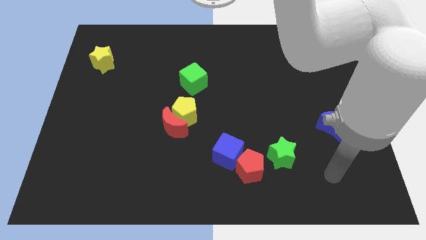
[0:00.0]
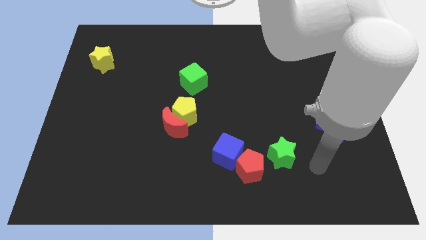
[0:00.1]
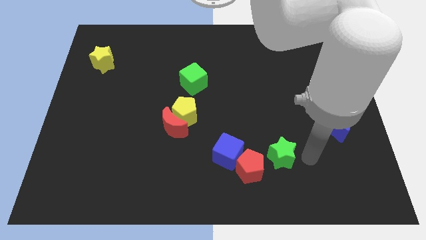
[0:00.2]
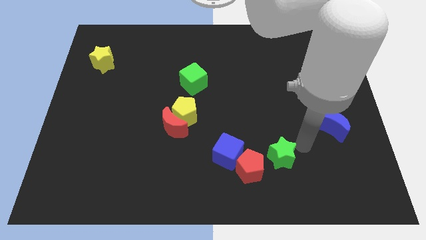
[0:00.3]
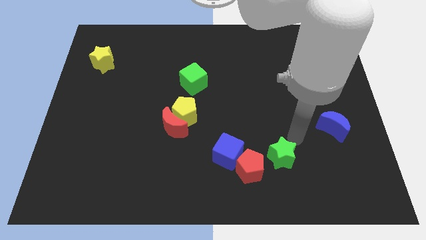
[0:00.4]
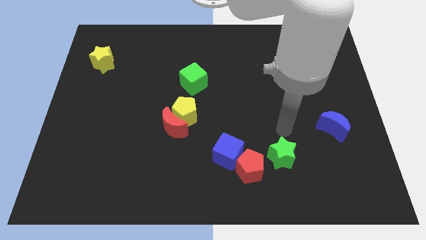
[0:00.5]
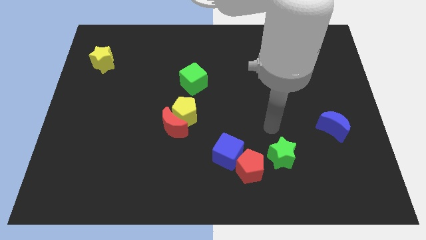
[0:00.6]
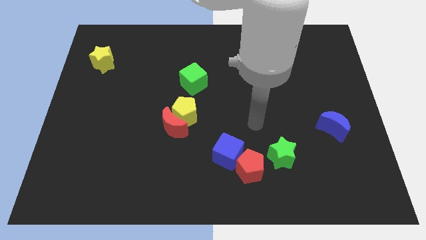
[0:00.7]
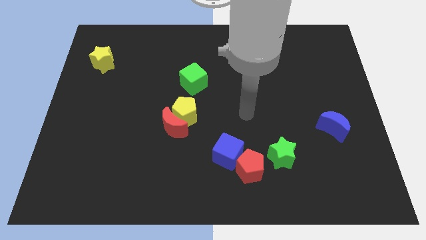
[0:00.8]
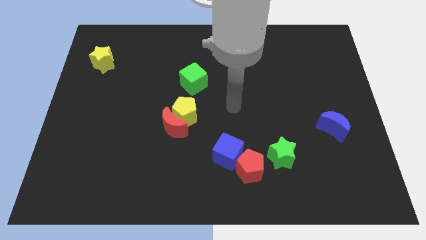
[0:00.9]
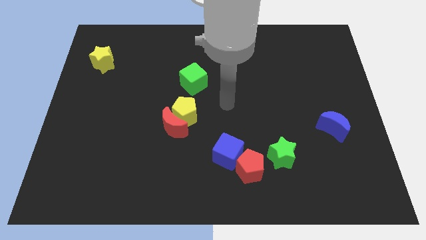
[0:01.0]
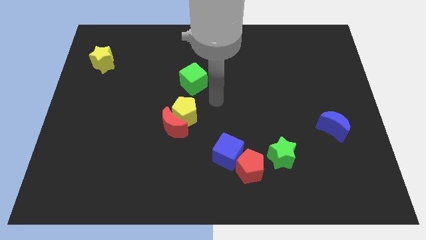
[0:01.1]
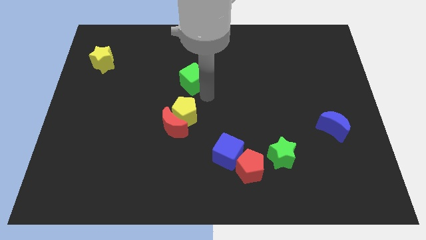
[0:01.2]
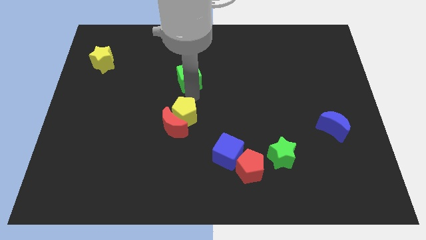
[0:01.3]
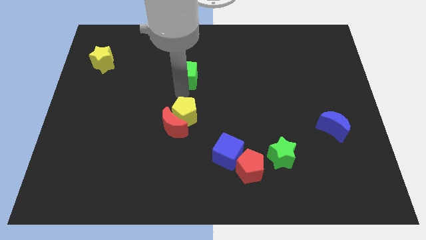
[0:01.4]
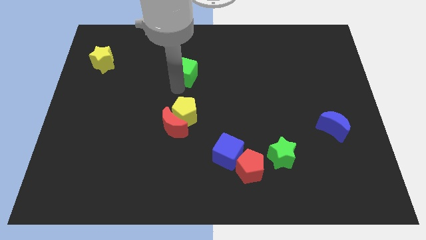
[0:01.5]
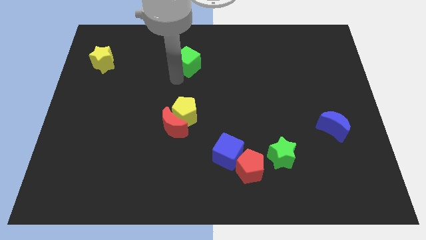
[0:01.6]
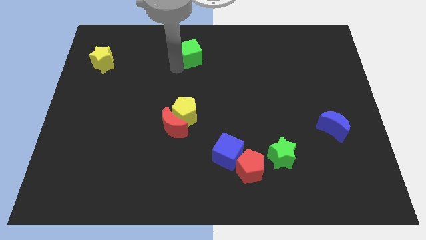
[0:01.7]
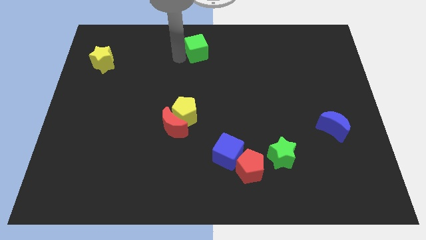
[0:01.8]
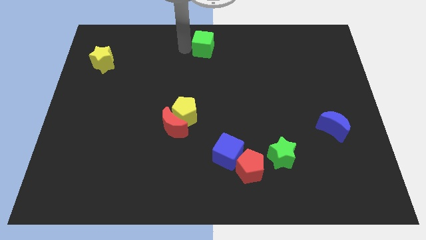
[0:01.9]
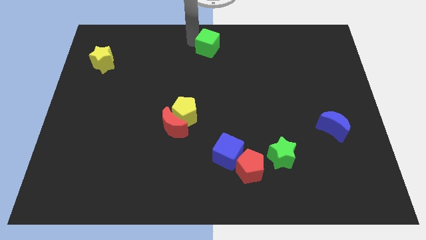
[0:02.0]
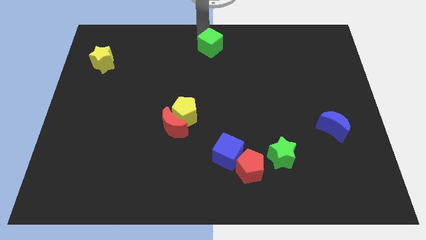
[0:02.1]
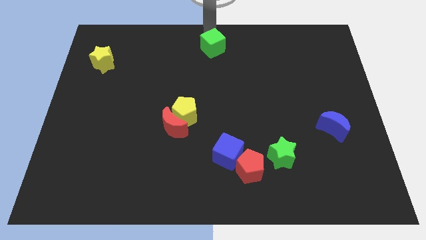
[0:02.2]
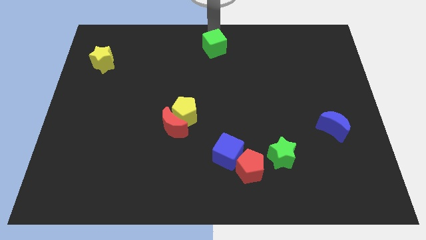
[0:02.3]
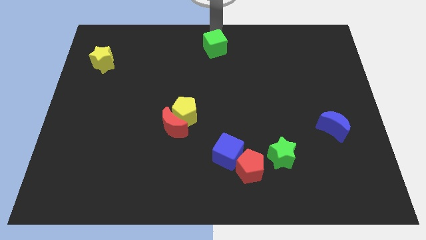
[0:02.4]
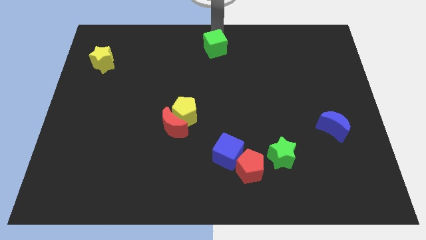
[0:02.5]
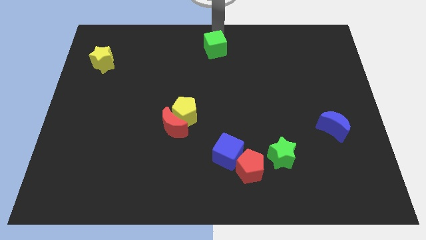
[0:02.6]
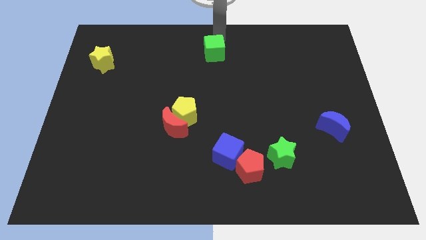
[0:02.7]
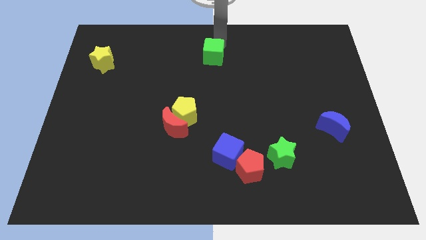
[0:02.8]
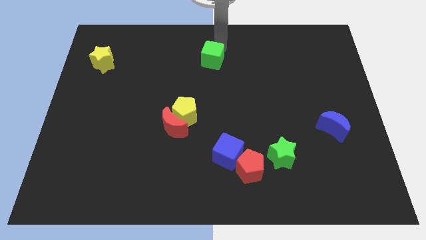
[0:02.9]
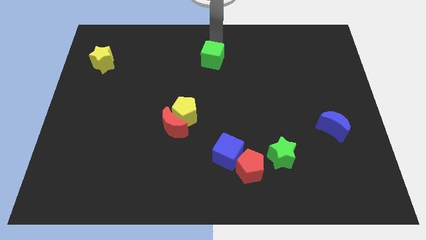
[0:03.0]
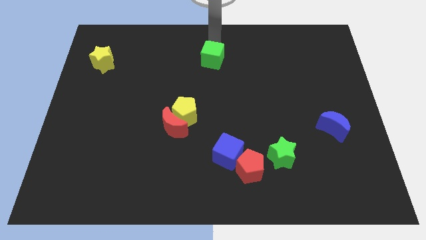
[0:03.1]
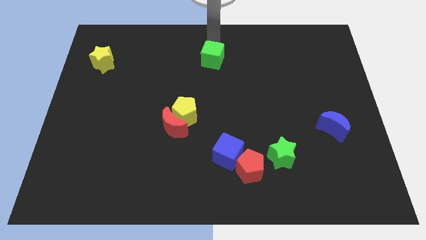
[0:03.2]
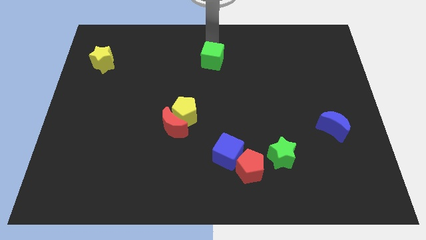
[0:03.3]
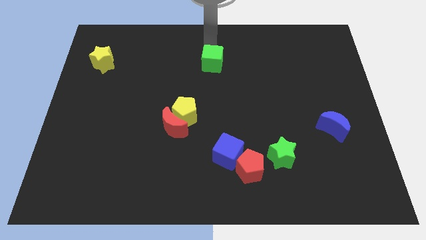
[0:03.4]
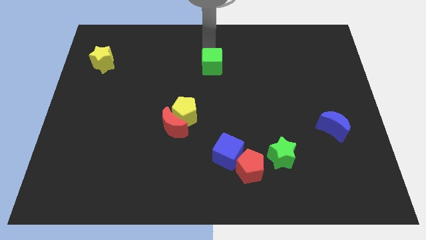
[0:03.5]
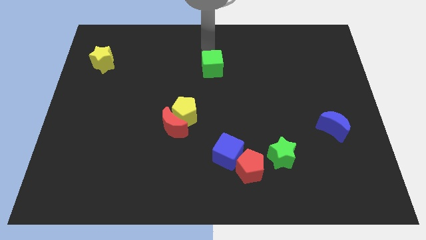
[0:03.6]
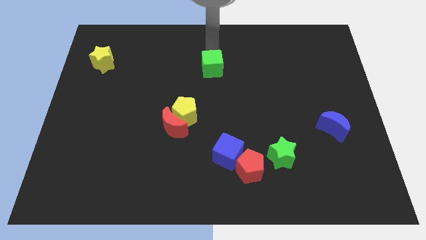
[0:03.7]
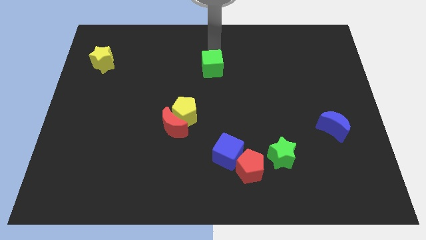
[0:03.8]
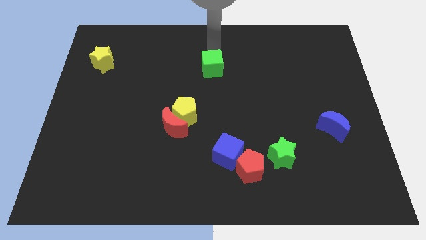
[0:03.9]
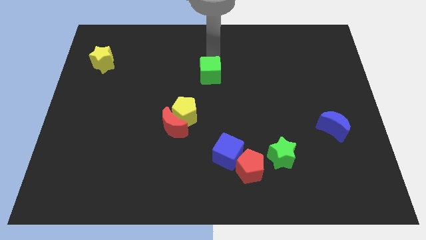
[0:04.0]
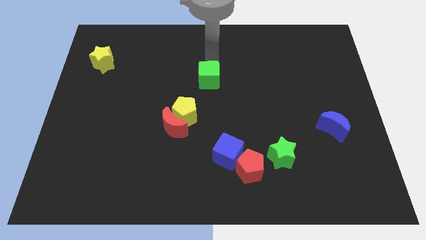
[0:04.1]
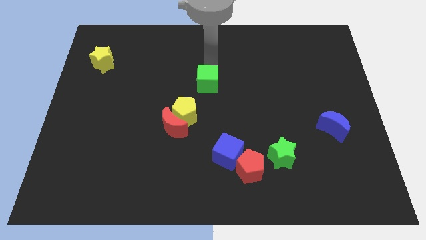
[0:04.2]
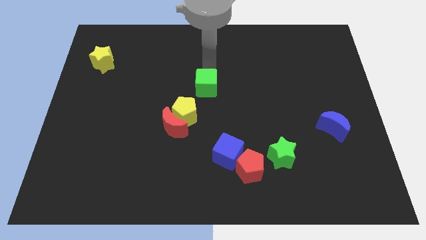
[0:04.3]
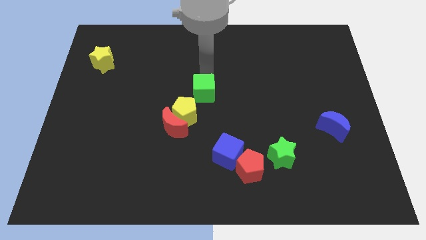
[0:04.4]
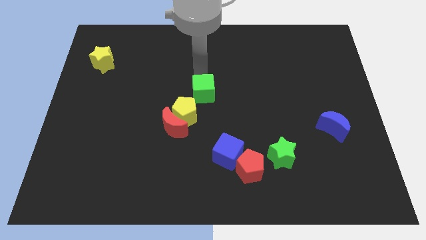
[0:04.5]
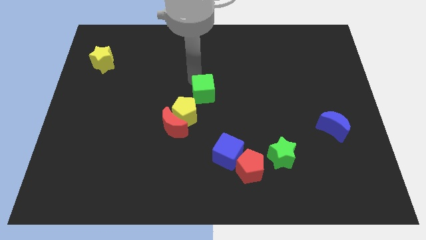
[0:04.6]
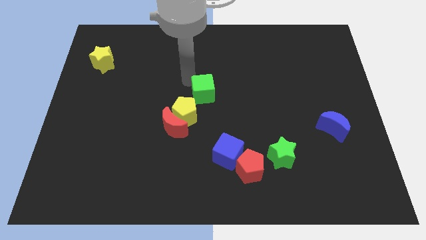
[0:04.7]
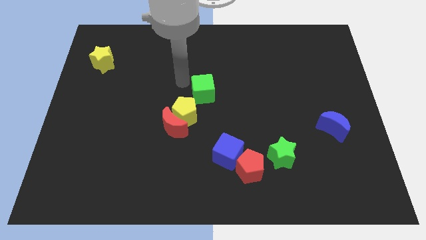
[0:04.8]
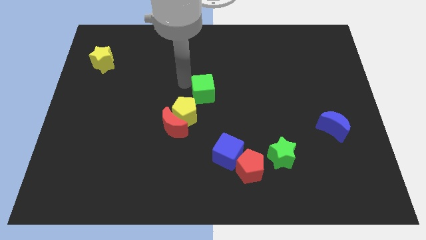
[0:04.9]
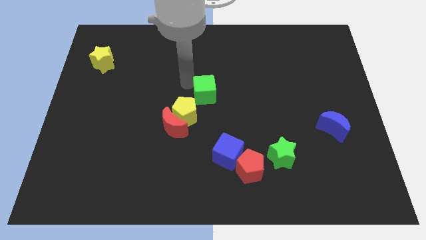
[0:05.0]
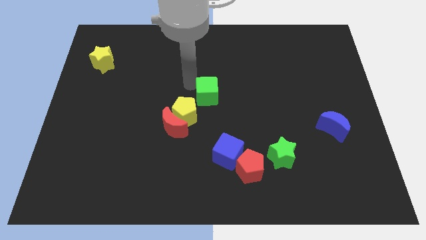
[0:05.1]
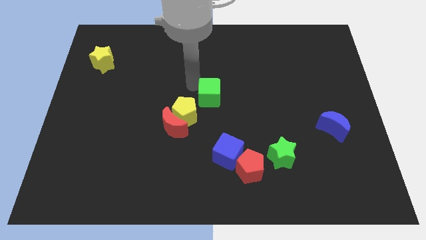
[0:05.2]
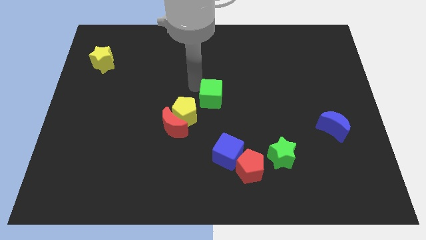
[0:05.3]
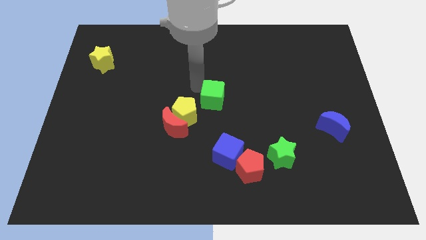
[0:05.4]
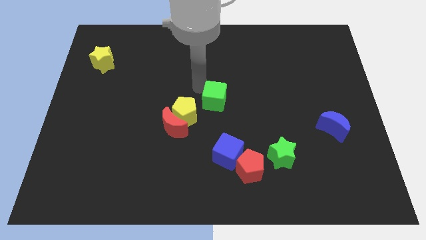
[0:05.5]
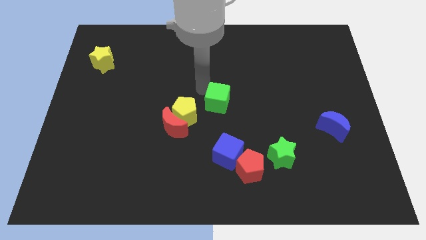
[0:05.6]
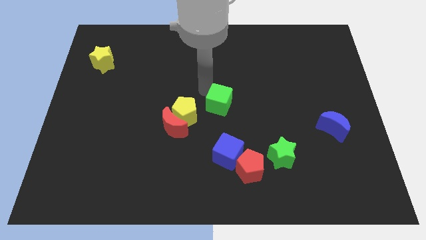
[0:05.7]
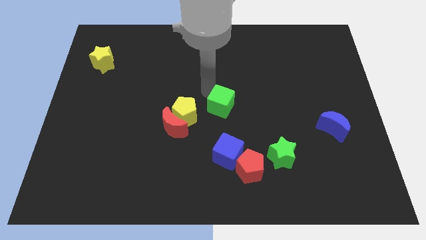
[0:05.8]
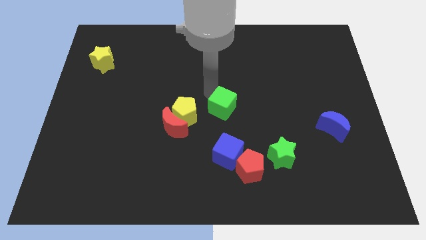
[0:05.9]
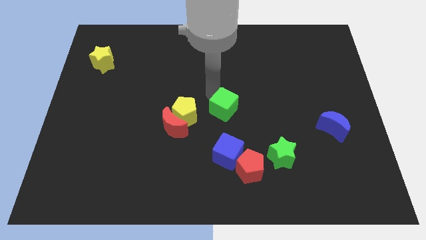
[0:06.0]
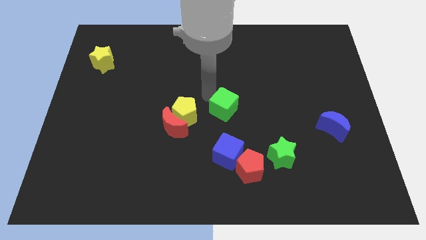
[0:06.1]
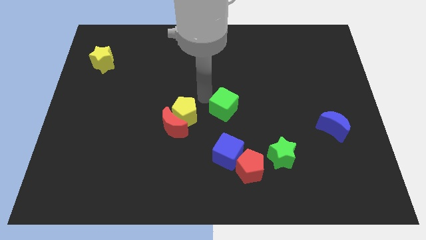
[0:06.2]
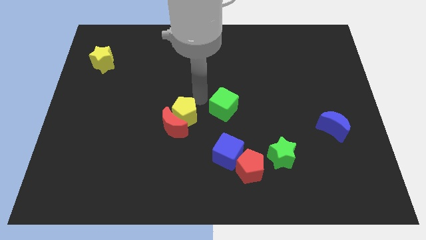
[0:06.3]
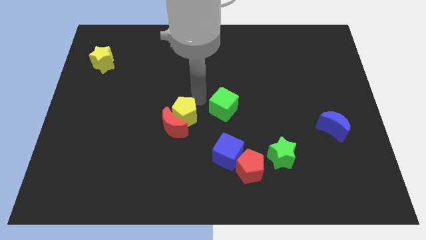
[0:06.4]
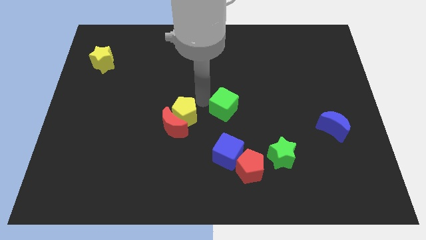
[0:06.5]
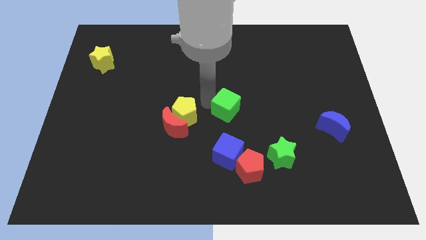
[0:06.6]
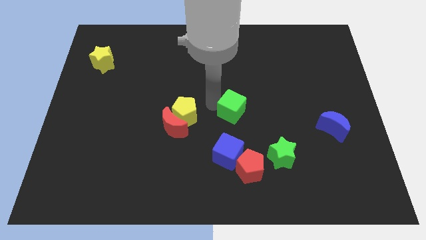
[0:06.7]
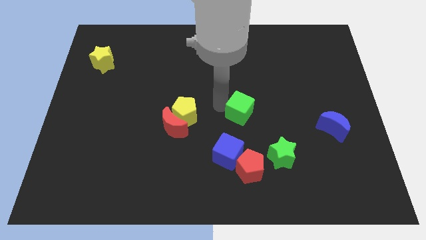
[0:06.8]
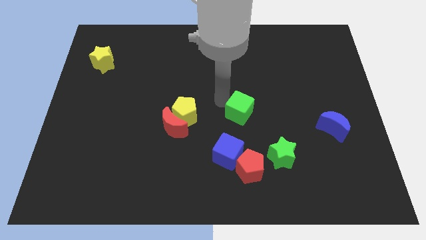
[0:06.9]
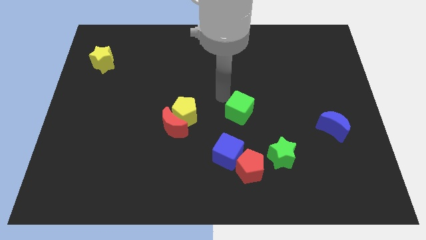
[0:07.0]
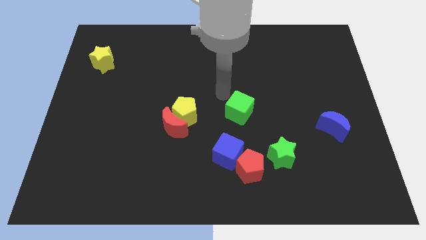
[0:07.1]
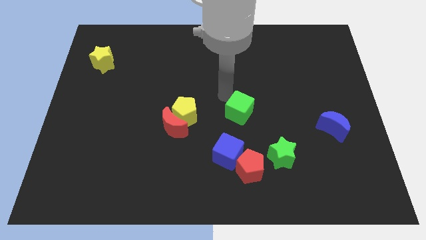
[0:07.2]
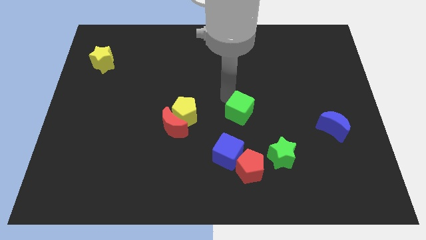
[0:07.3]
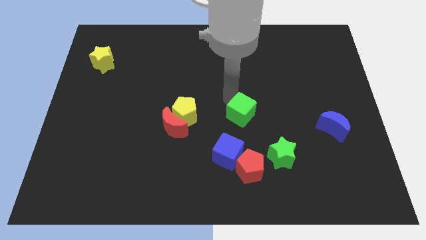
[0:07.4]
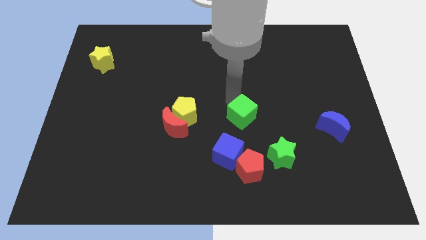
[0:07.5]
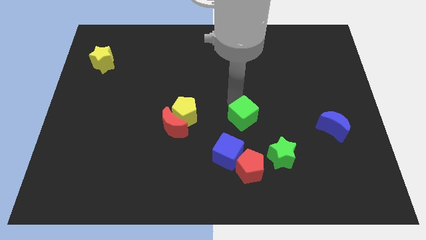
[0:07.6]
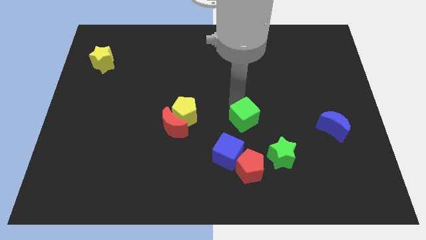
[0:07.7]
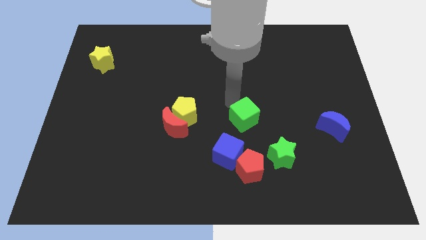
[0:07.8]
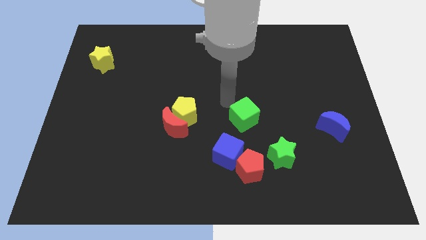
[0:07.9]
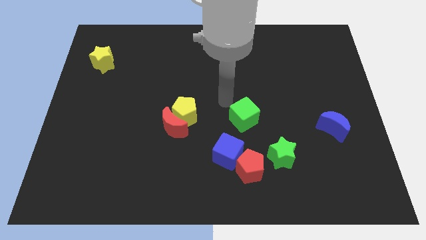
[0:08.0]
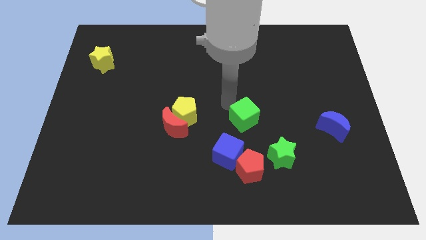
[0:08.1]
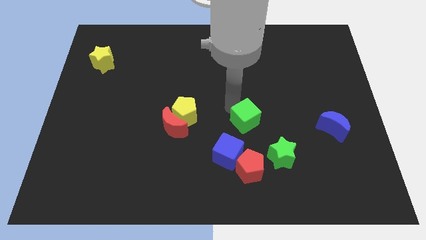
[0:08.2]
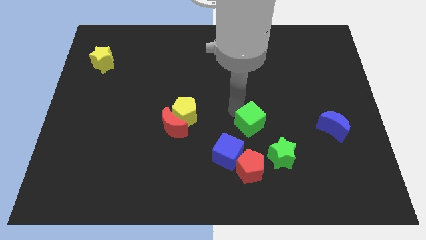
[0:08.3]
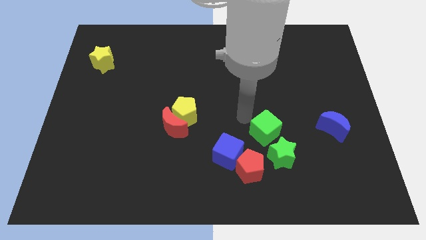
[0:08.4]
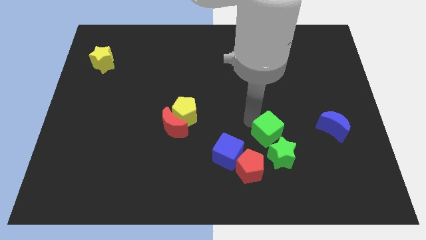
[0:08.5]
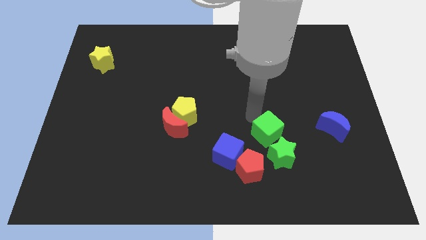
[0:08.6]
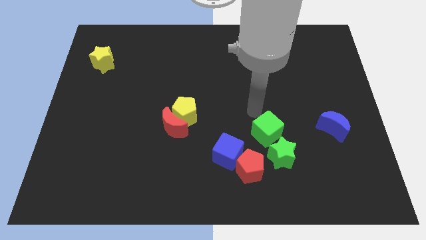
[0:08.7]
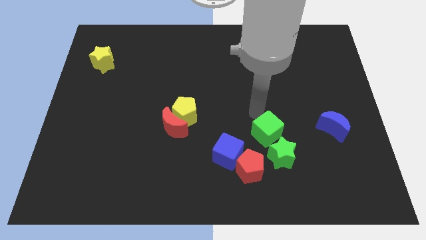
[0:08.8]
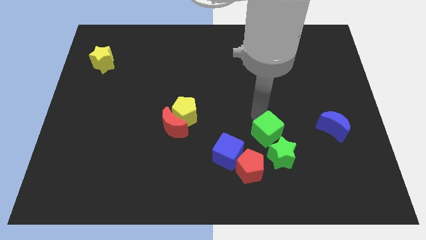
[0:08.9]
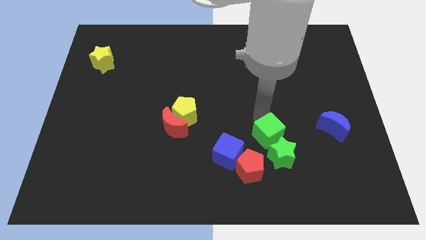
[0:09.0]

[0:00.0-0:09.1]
slide the green cube close to the green star
